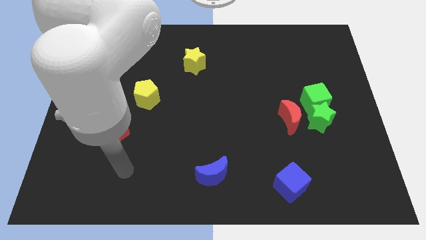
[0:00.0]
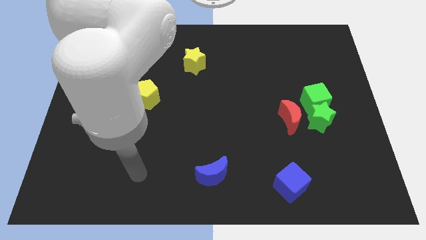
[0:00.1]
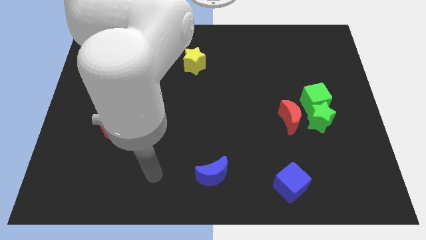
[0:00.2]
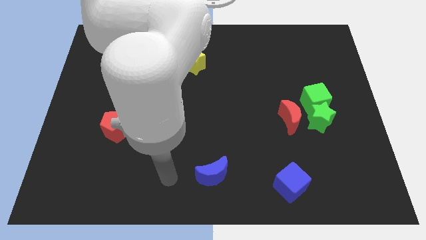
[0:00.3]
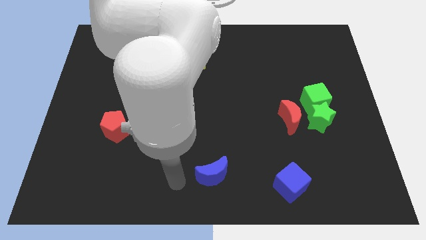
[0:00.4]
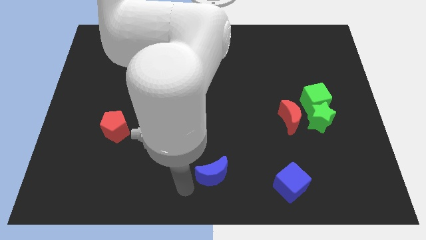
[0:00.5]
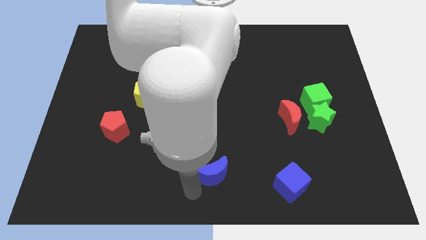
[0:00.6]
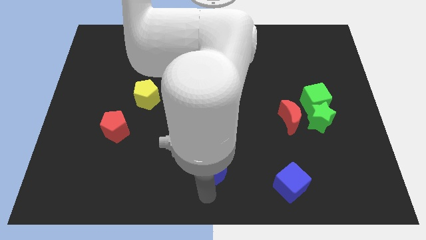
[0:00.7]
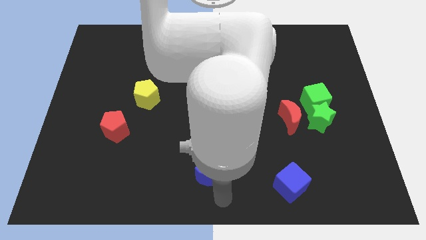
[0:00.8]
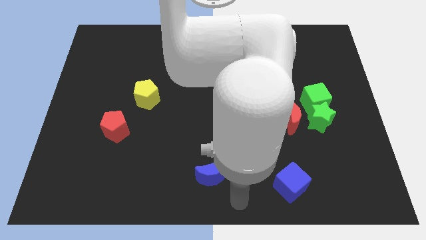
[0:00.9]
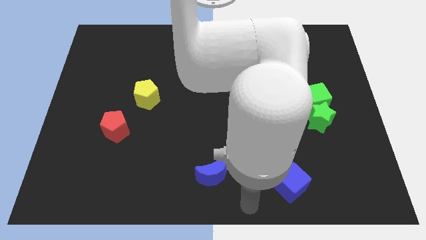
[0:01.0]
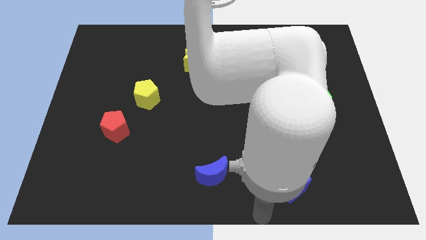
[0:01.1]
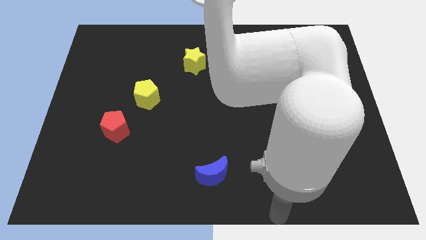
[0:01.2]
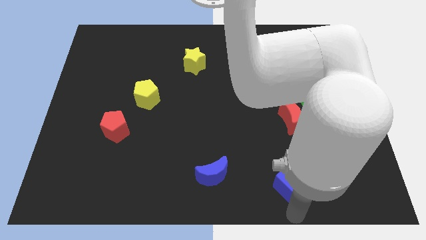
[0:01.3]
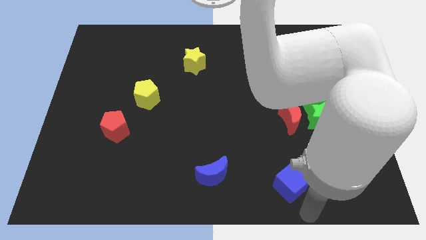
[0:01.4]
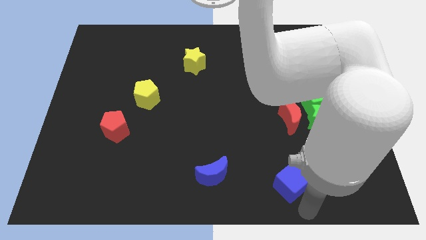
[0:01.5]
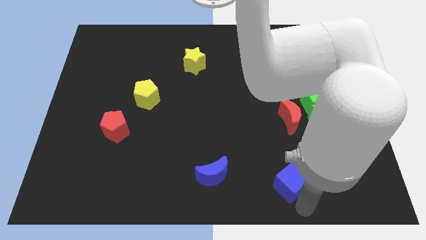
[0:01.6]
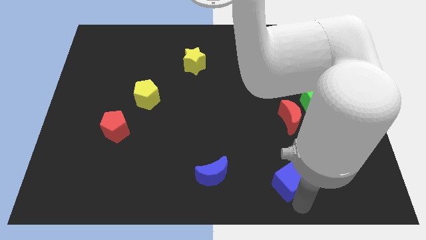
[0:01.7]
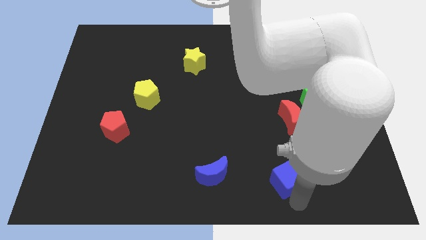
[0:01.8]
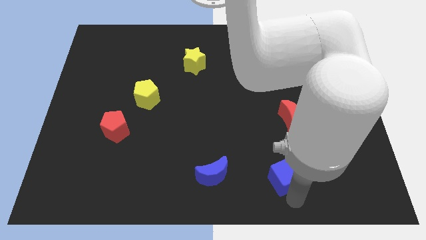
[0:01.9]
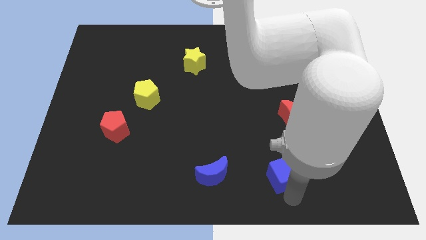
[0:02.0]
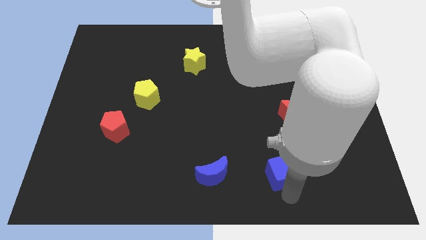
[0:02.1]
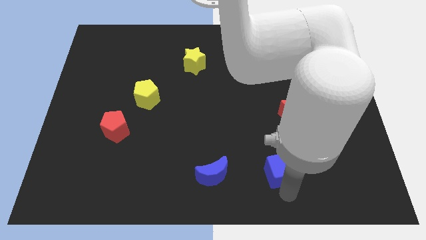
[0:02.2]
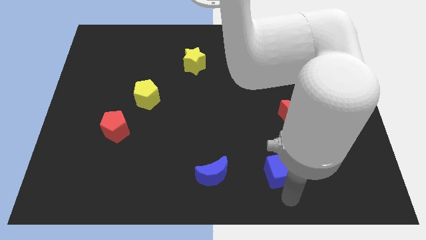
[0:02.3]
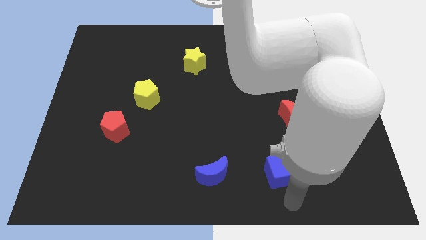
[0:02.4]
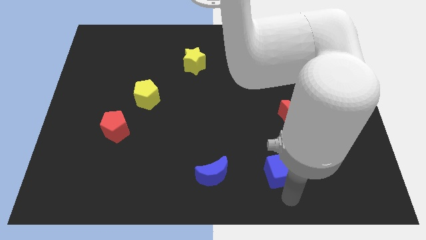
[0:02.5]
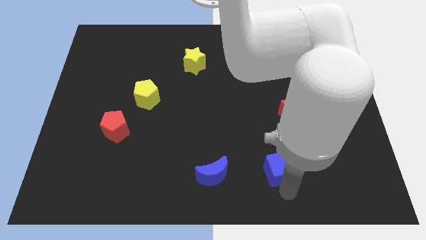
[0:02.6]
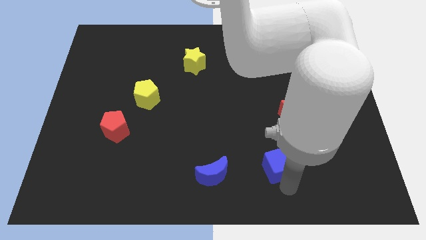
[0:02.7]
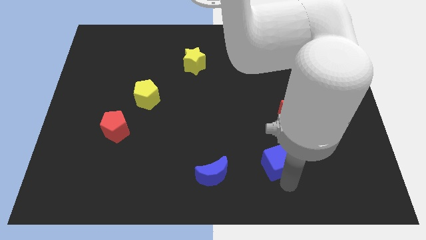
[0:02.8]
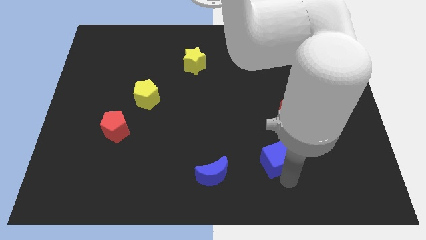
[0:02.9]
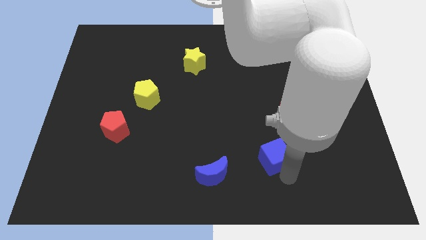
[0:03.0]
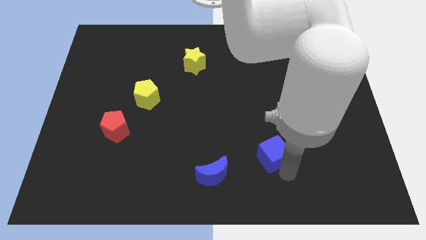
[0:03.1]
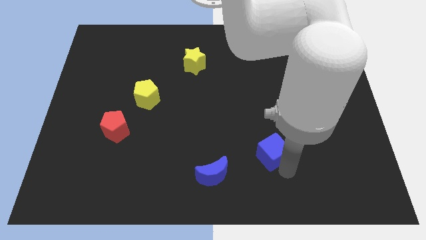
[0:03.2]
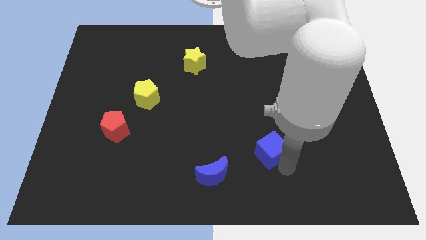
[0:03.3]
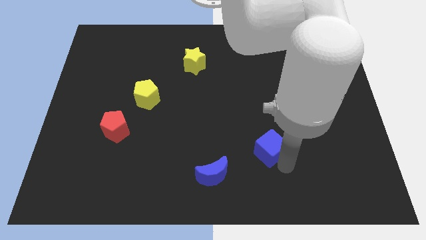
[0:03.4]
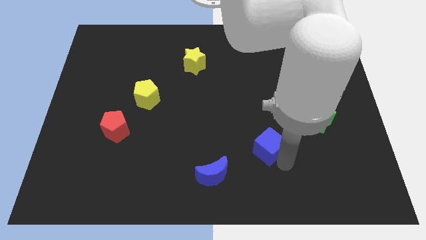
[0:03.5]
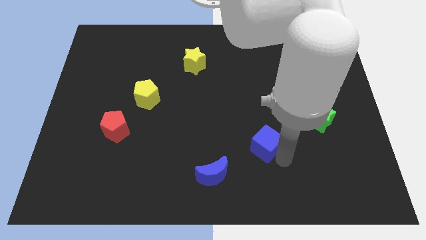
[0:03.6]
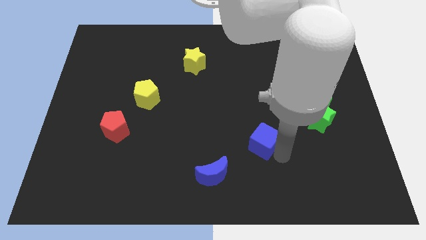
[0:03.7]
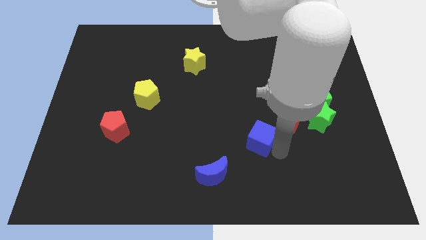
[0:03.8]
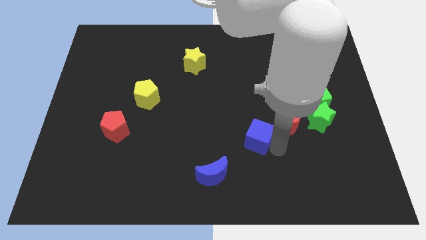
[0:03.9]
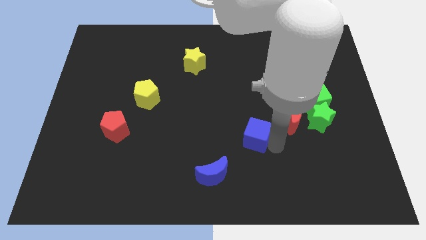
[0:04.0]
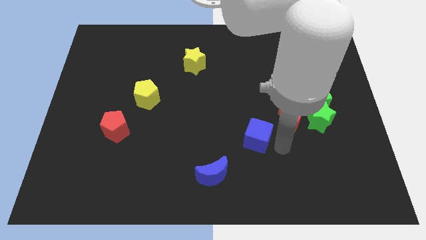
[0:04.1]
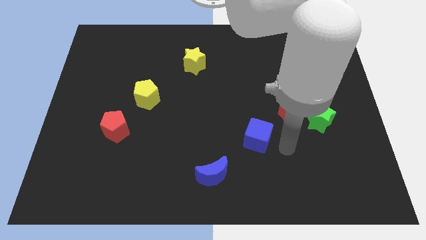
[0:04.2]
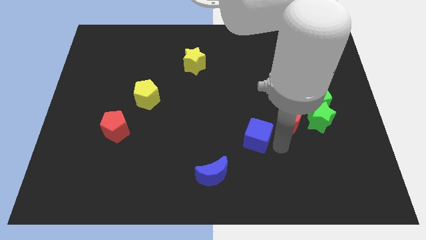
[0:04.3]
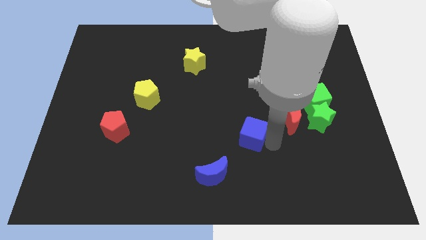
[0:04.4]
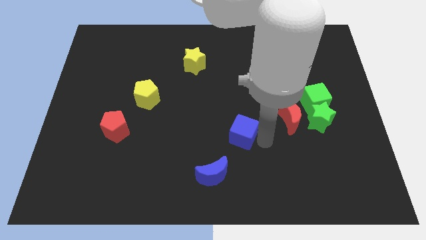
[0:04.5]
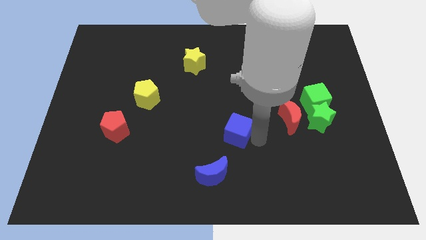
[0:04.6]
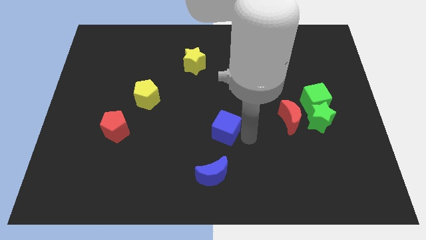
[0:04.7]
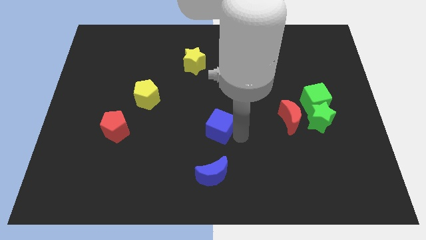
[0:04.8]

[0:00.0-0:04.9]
push the blue cube up and left

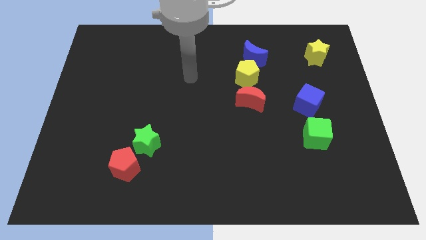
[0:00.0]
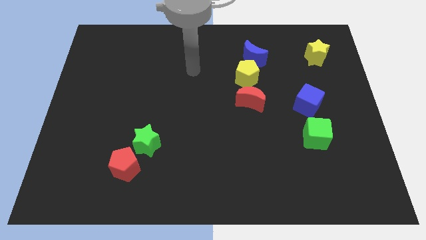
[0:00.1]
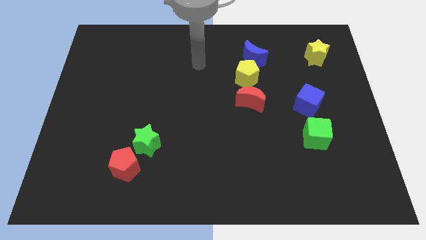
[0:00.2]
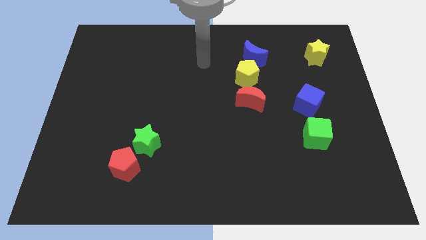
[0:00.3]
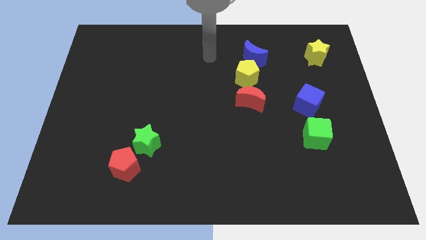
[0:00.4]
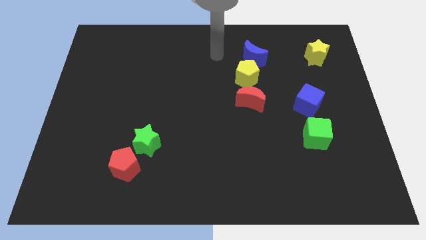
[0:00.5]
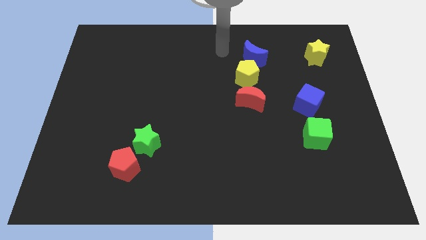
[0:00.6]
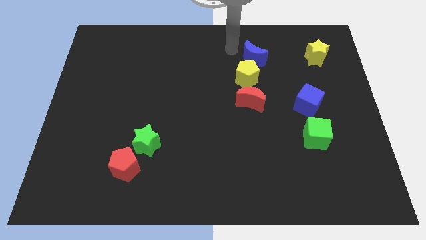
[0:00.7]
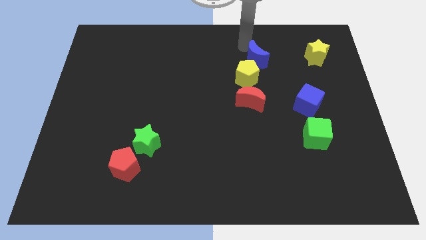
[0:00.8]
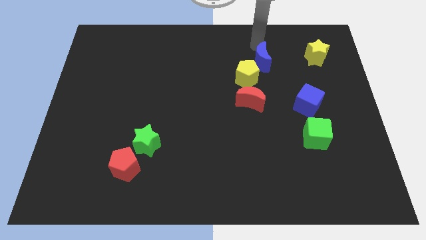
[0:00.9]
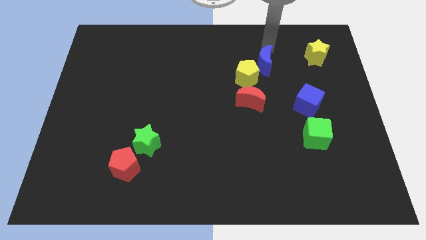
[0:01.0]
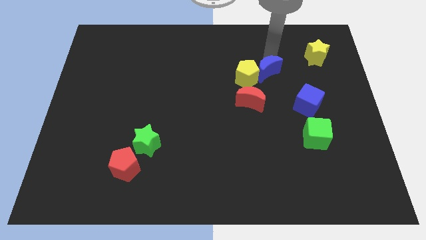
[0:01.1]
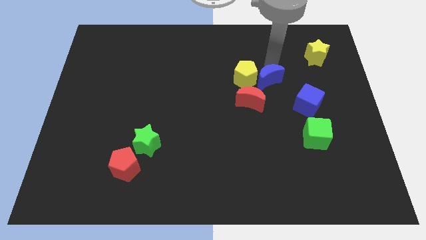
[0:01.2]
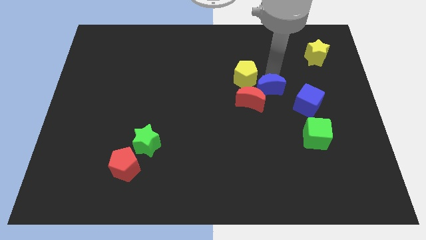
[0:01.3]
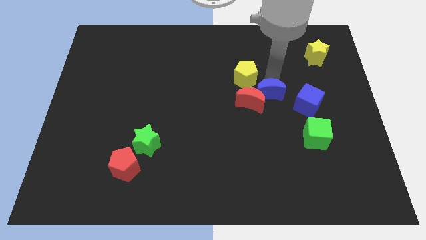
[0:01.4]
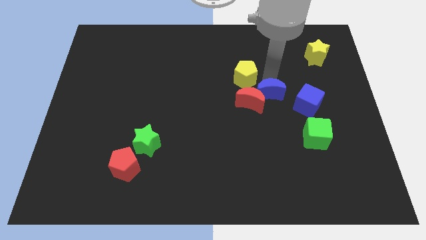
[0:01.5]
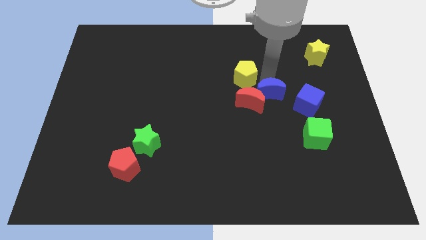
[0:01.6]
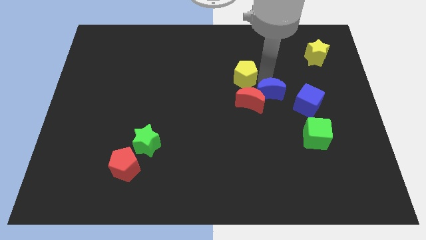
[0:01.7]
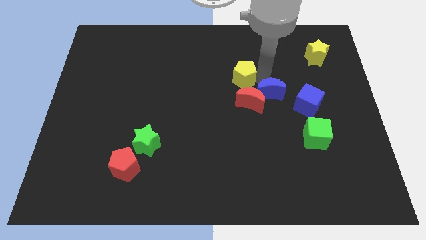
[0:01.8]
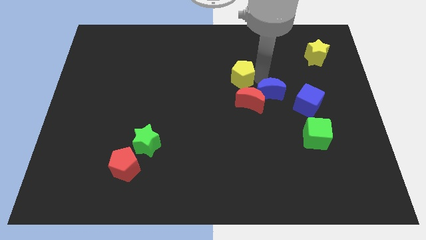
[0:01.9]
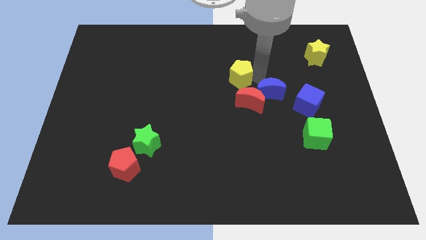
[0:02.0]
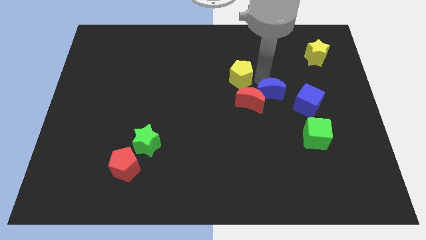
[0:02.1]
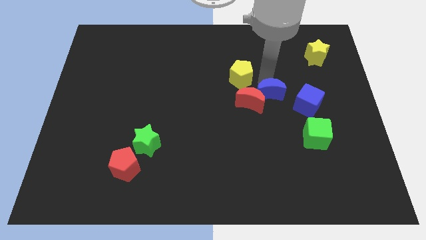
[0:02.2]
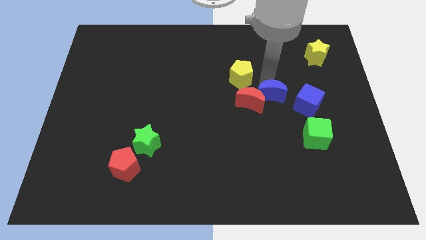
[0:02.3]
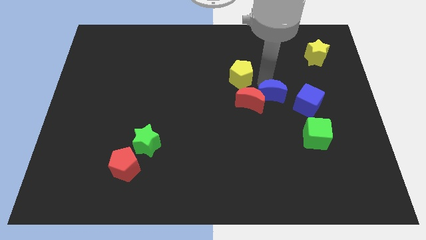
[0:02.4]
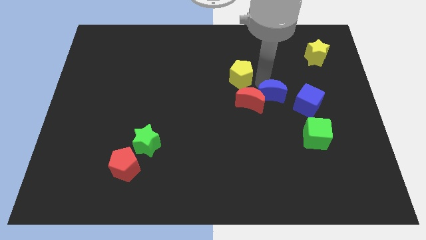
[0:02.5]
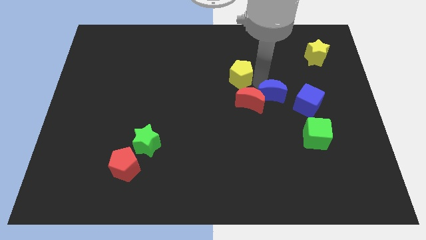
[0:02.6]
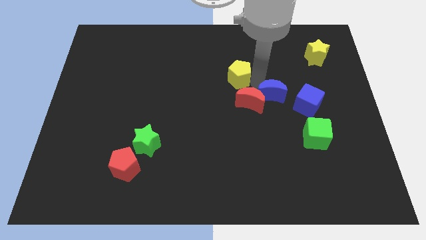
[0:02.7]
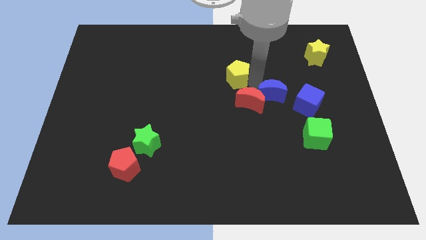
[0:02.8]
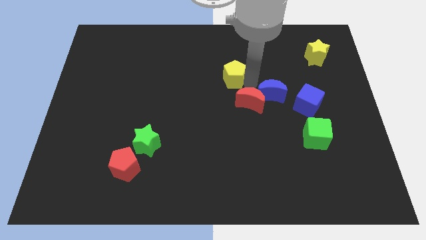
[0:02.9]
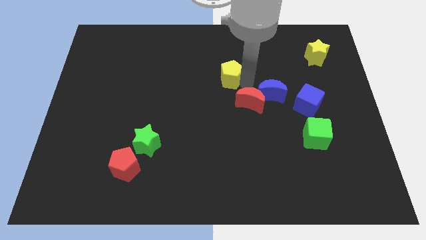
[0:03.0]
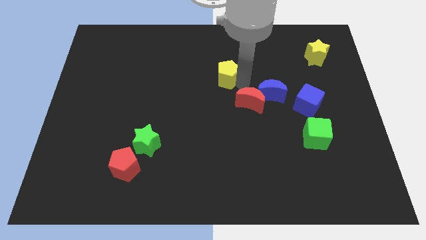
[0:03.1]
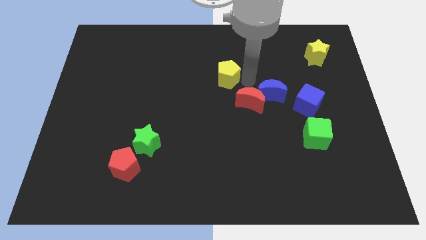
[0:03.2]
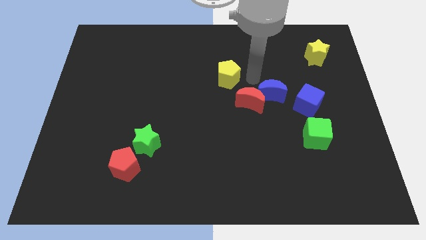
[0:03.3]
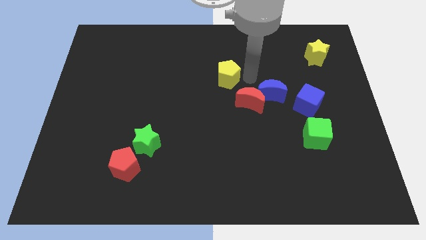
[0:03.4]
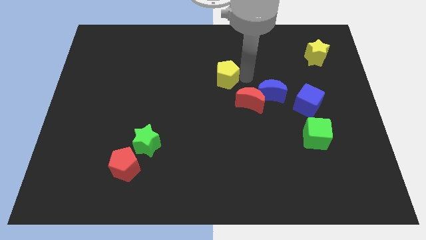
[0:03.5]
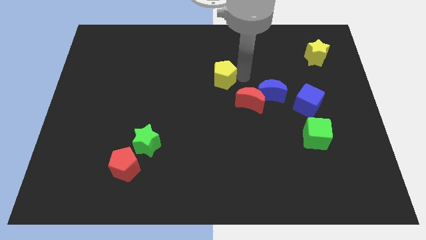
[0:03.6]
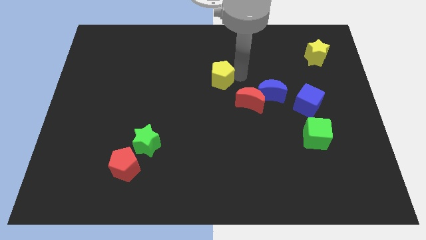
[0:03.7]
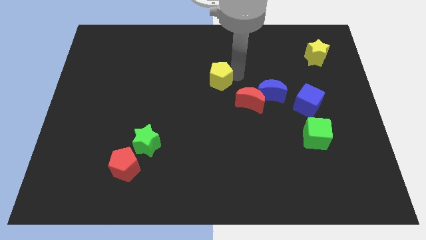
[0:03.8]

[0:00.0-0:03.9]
move the yellow pentagon a bit to the left
